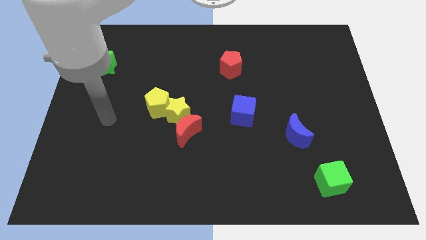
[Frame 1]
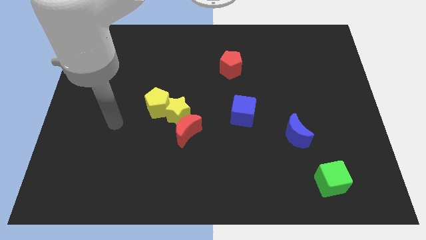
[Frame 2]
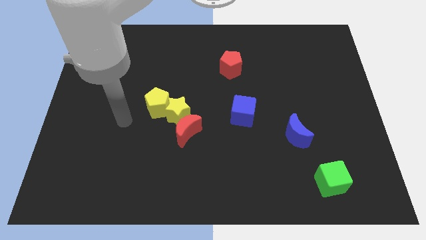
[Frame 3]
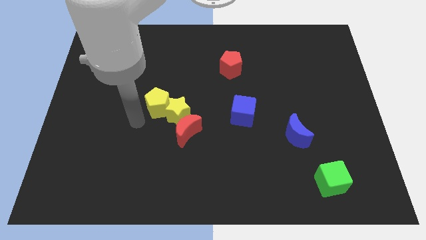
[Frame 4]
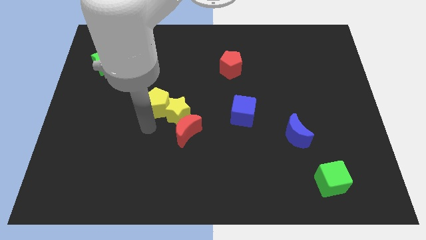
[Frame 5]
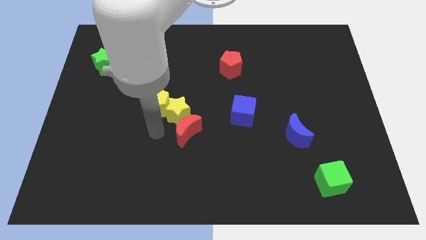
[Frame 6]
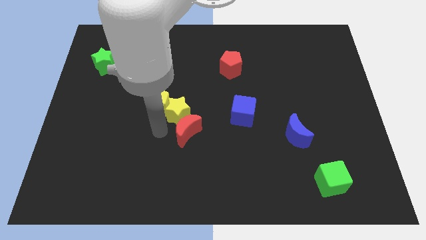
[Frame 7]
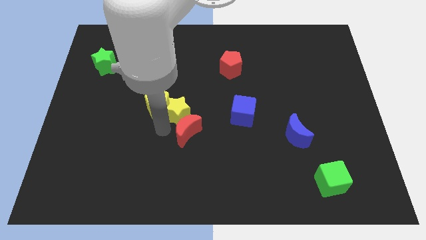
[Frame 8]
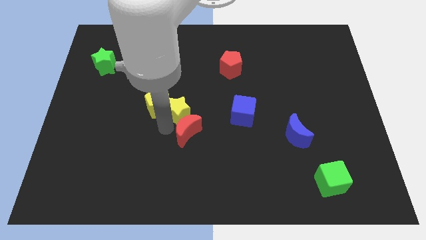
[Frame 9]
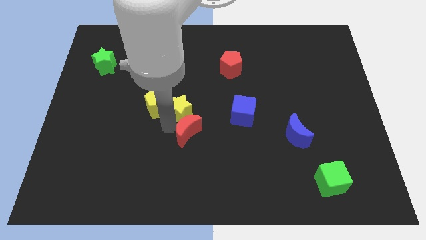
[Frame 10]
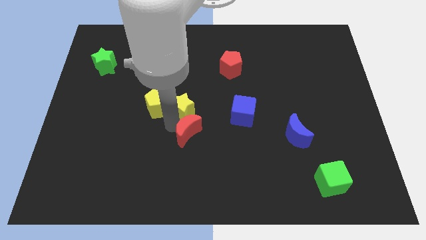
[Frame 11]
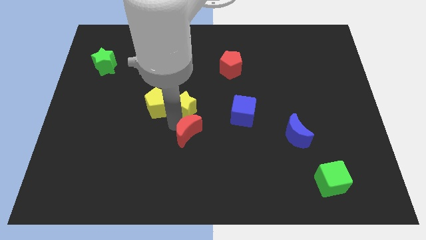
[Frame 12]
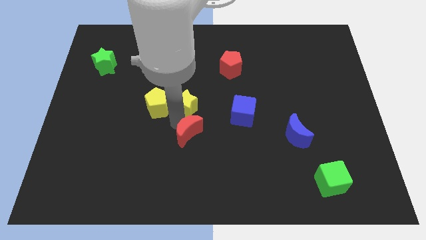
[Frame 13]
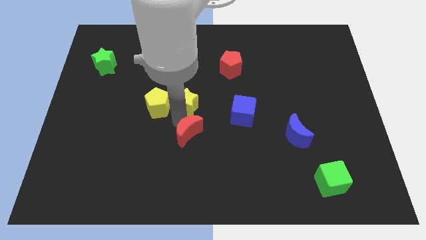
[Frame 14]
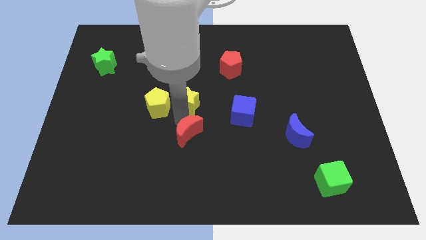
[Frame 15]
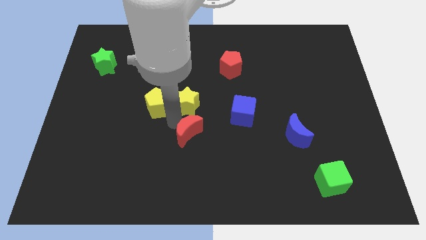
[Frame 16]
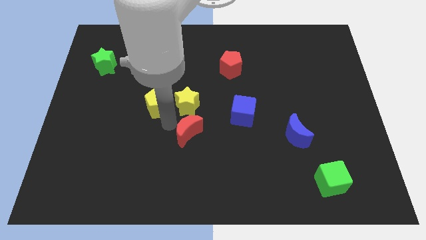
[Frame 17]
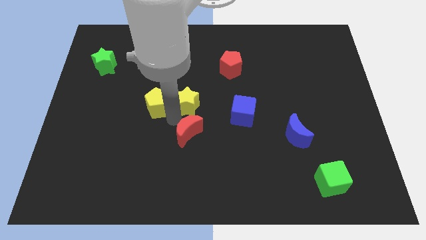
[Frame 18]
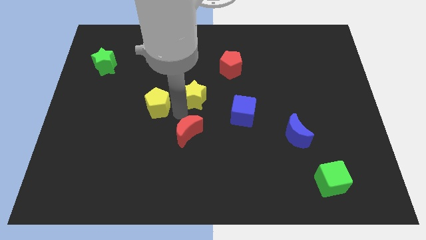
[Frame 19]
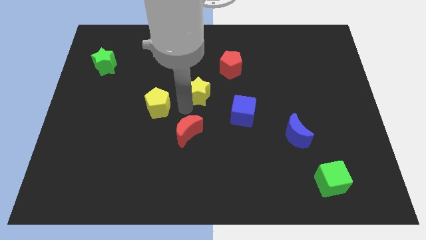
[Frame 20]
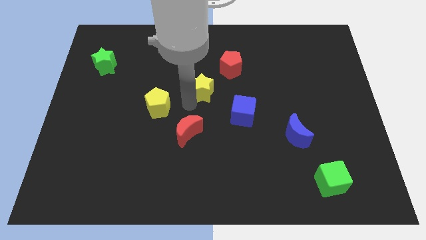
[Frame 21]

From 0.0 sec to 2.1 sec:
pull the yellow star apart from the yellow pentagon and red moon

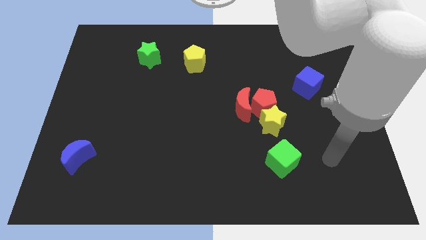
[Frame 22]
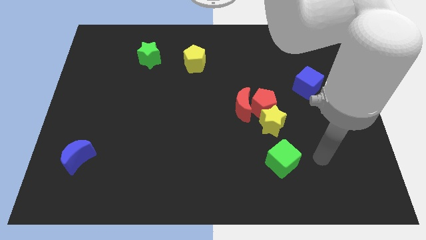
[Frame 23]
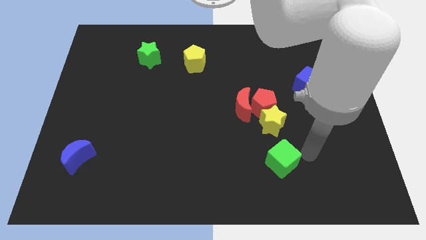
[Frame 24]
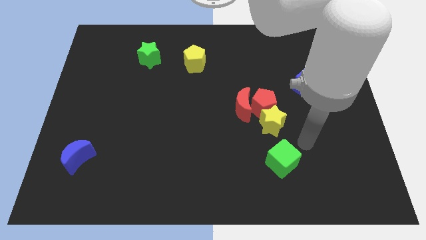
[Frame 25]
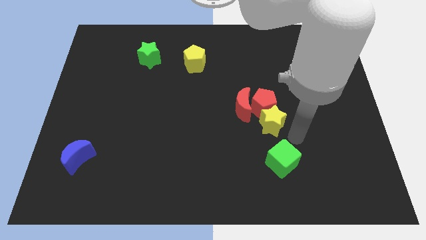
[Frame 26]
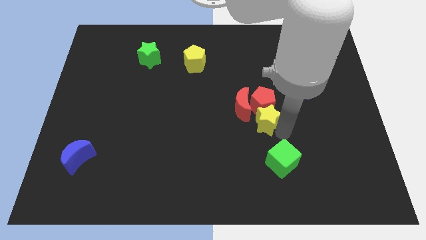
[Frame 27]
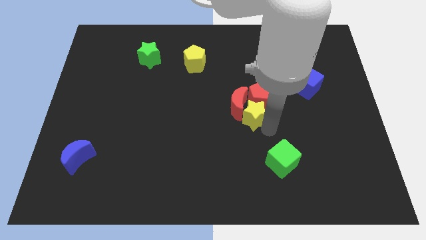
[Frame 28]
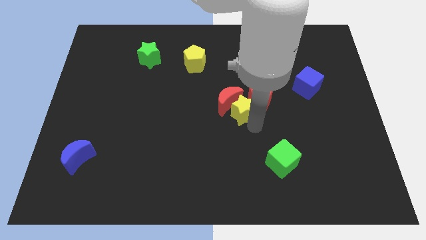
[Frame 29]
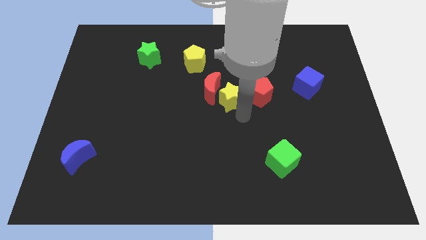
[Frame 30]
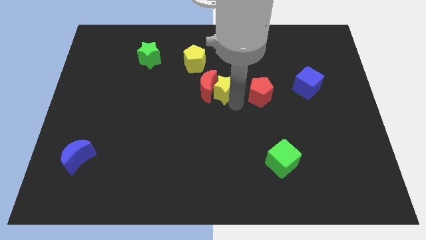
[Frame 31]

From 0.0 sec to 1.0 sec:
move the red pentagon away from the red moon and yellow star

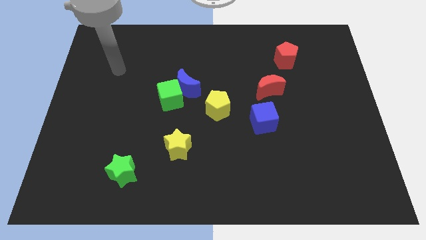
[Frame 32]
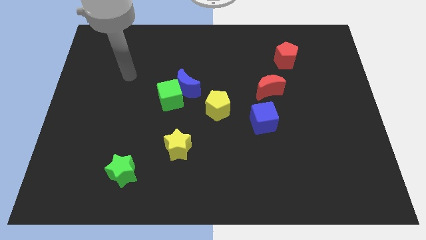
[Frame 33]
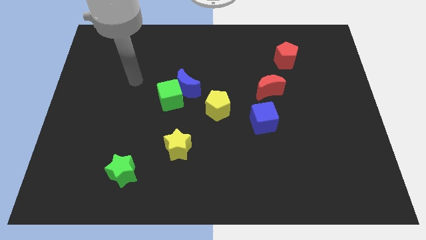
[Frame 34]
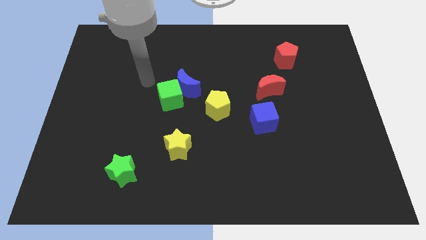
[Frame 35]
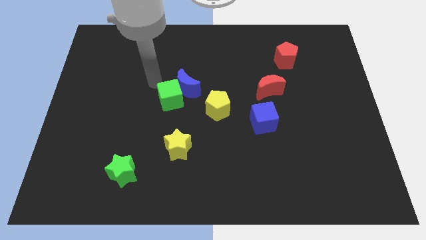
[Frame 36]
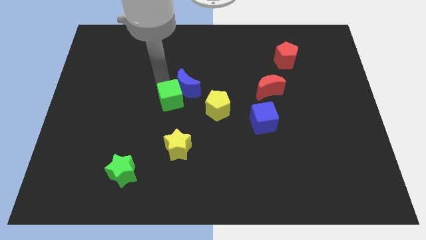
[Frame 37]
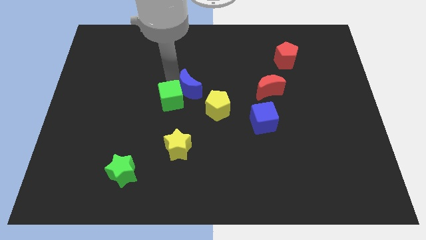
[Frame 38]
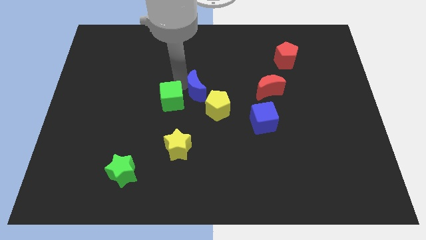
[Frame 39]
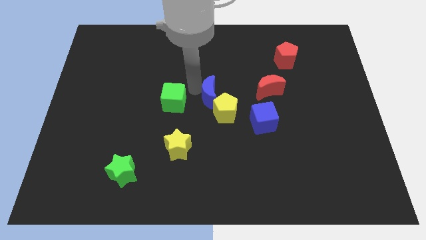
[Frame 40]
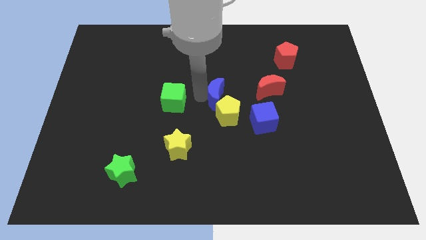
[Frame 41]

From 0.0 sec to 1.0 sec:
move the green cube away from the blue moon

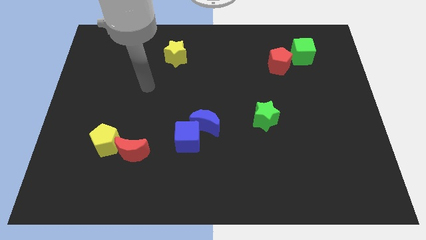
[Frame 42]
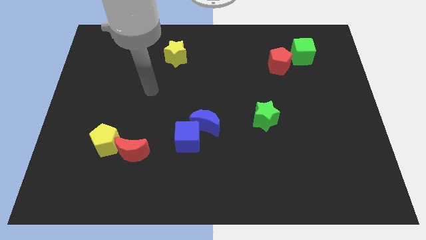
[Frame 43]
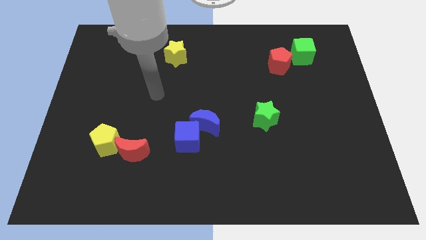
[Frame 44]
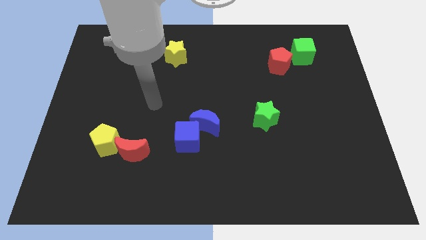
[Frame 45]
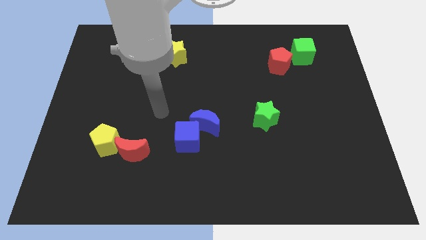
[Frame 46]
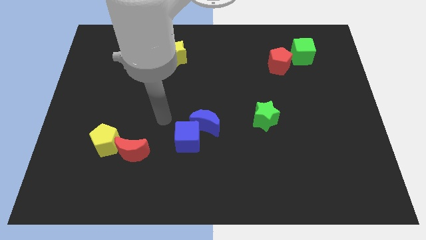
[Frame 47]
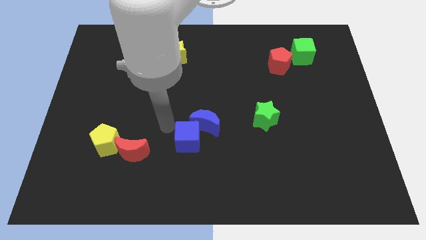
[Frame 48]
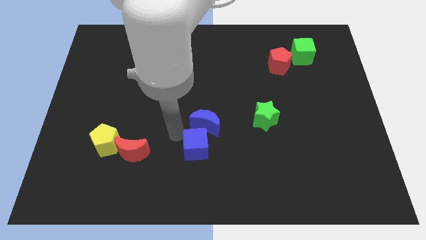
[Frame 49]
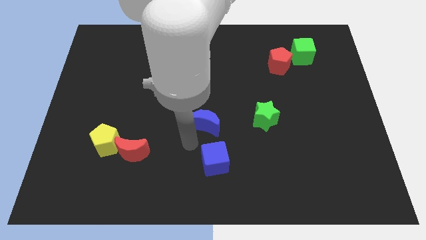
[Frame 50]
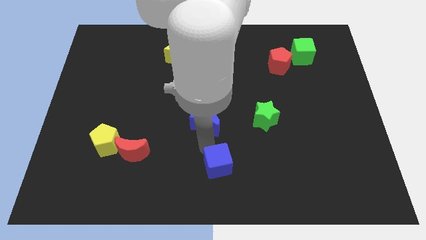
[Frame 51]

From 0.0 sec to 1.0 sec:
separate the blue moon from the blue cube

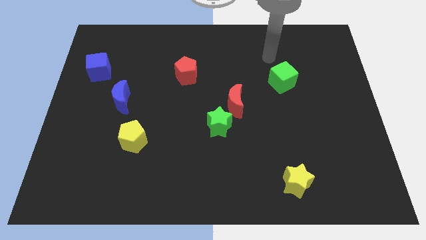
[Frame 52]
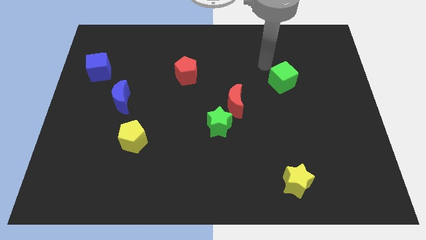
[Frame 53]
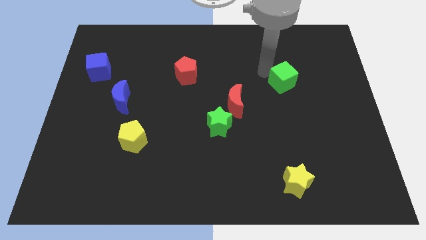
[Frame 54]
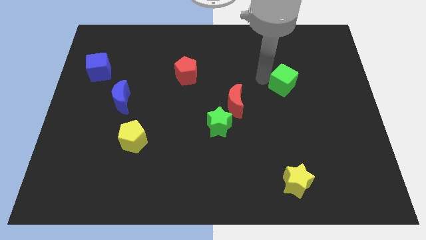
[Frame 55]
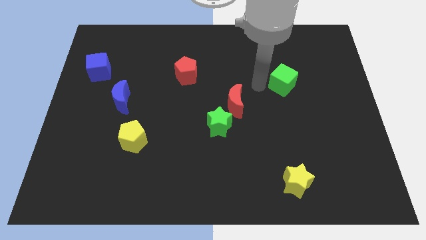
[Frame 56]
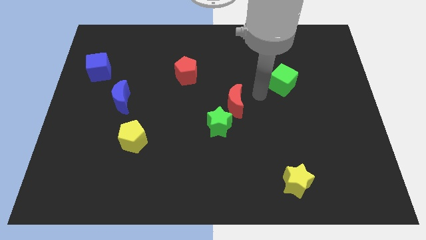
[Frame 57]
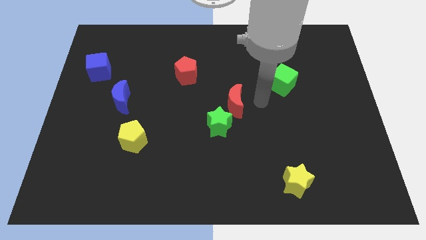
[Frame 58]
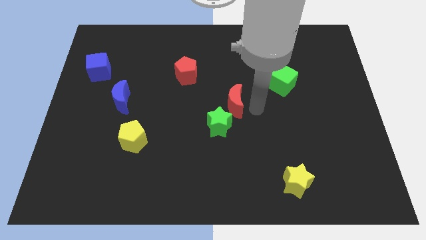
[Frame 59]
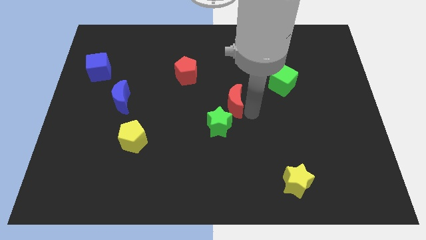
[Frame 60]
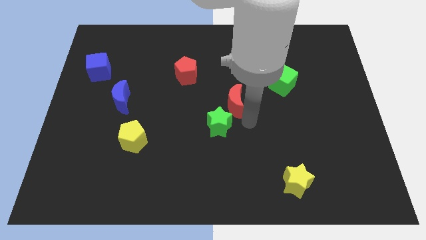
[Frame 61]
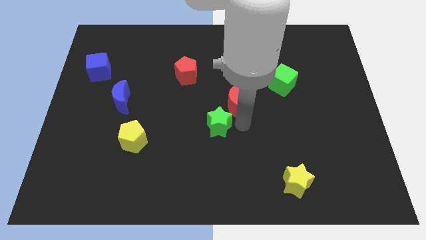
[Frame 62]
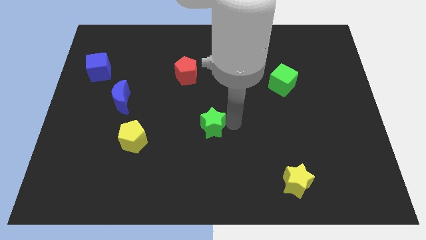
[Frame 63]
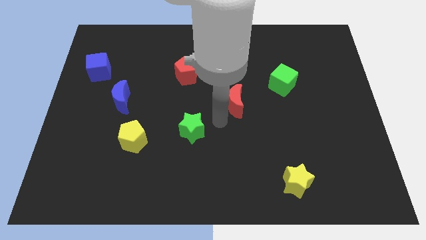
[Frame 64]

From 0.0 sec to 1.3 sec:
pull the red moon apart from the green star

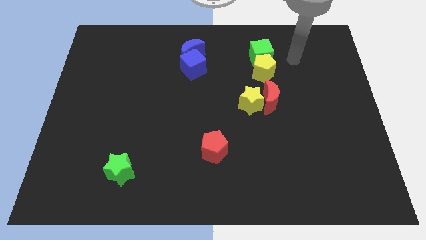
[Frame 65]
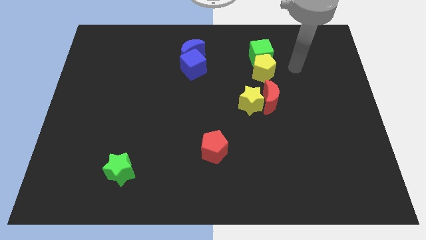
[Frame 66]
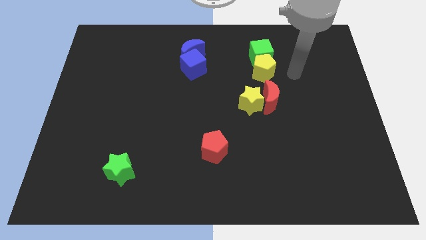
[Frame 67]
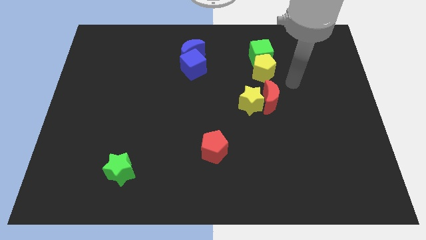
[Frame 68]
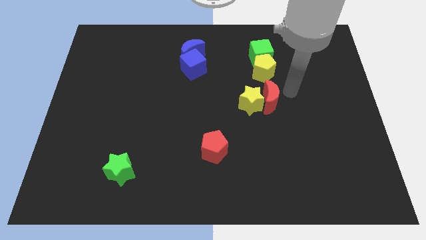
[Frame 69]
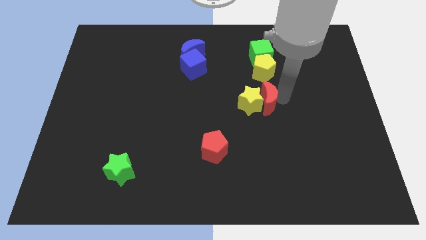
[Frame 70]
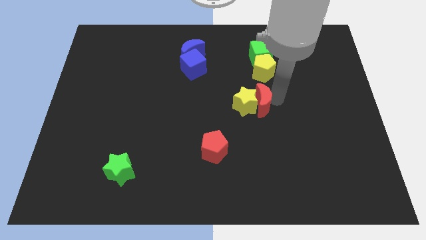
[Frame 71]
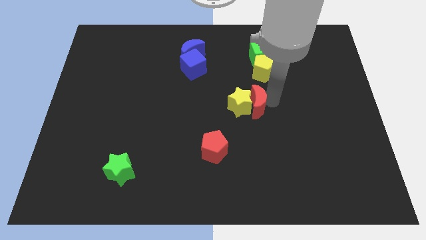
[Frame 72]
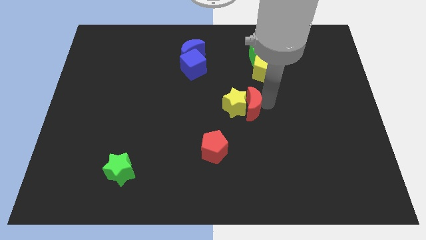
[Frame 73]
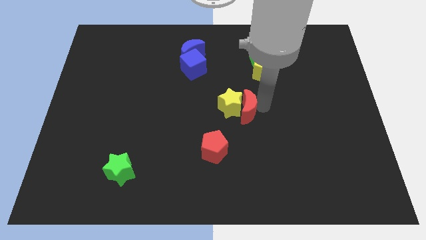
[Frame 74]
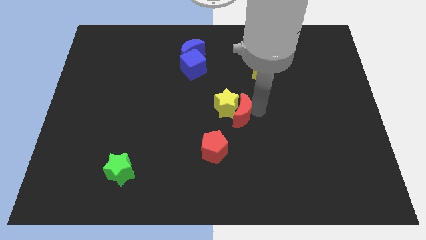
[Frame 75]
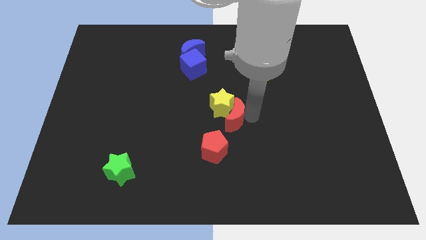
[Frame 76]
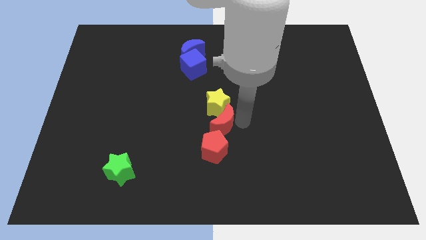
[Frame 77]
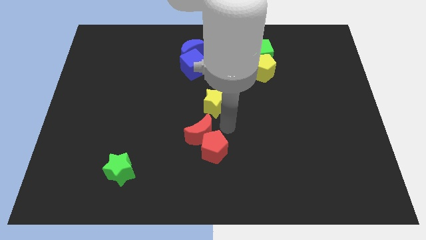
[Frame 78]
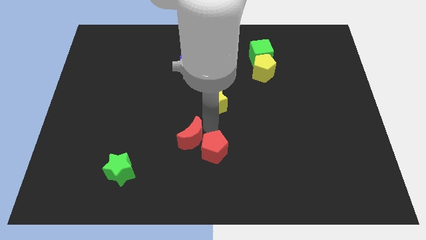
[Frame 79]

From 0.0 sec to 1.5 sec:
move the yellow star away from the red moon

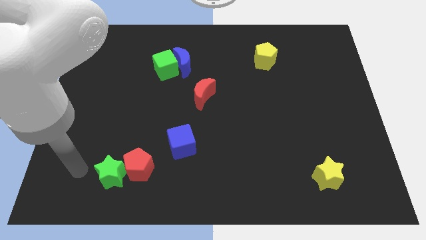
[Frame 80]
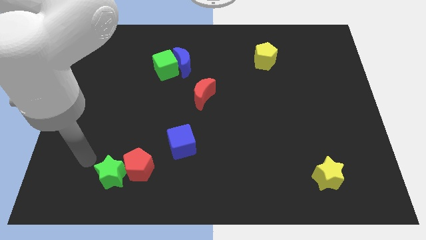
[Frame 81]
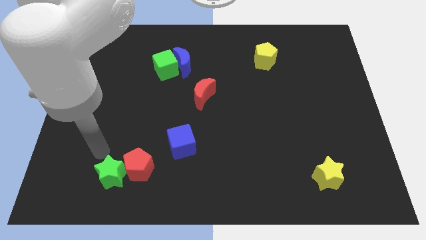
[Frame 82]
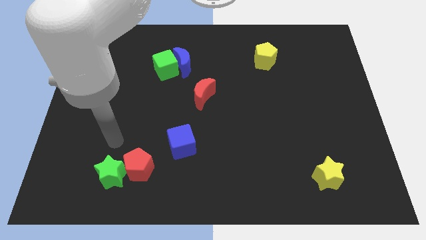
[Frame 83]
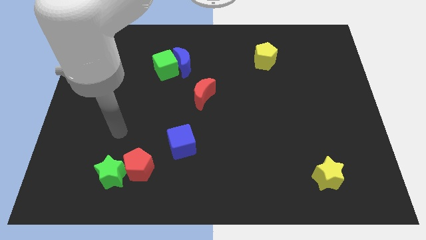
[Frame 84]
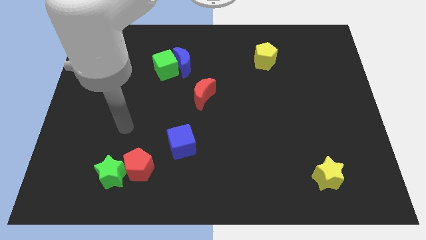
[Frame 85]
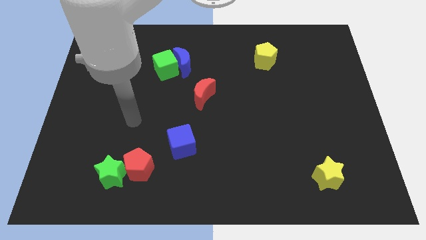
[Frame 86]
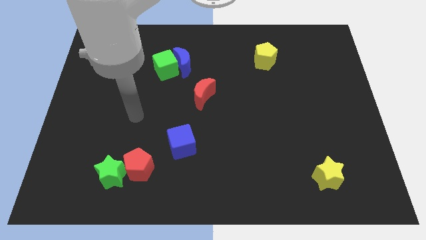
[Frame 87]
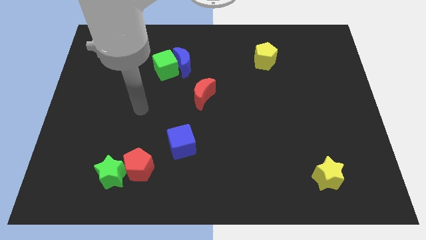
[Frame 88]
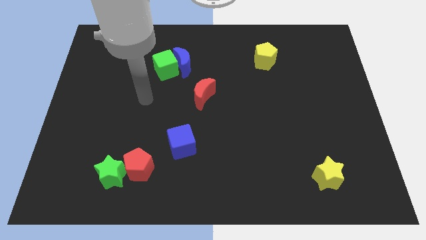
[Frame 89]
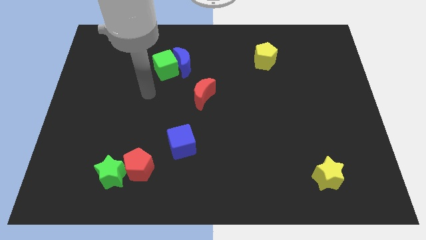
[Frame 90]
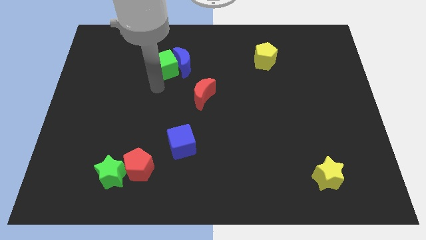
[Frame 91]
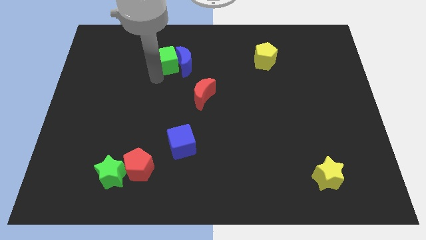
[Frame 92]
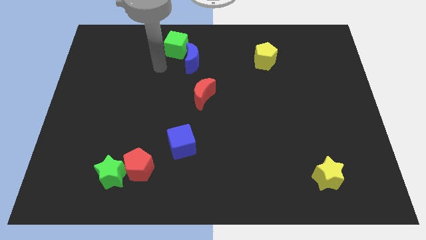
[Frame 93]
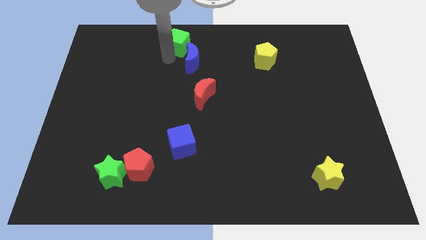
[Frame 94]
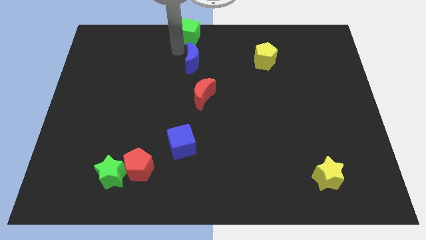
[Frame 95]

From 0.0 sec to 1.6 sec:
pull the blue moon apart from the green cube
